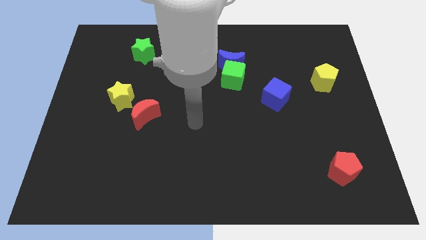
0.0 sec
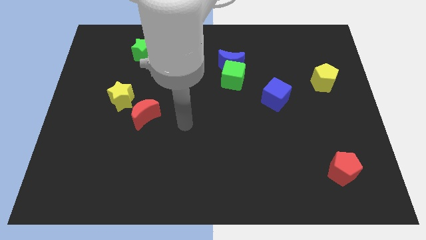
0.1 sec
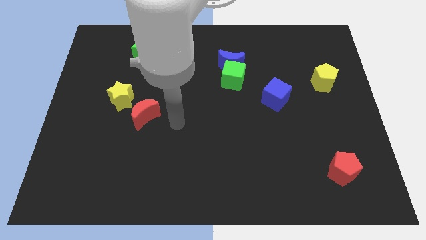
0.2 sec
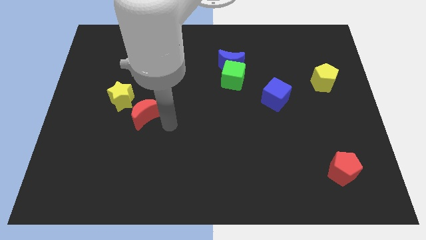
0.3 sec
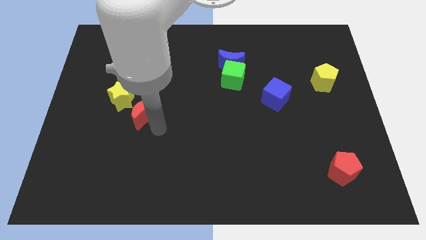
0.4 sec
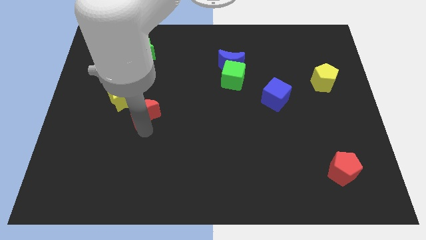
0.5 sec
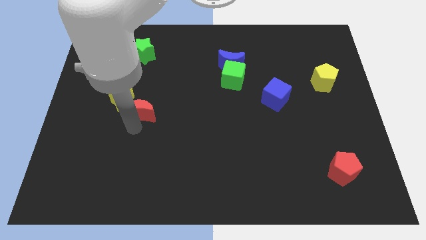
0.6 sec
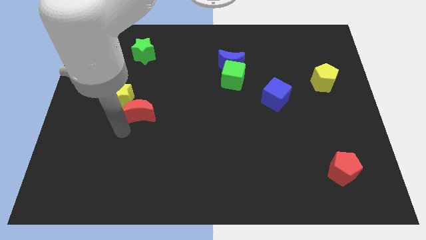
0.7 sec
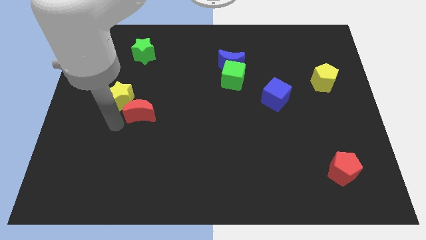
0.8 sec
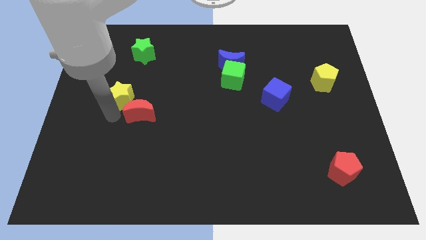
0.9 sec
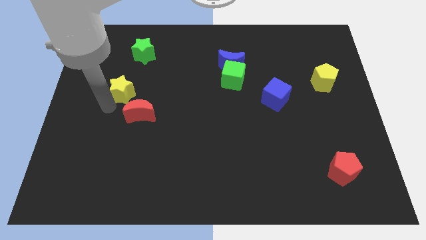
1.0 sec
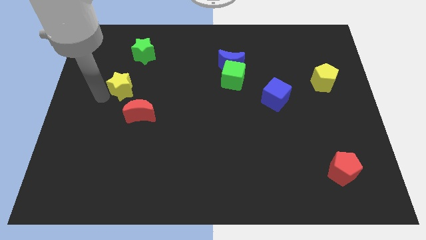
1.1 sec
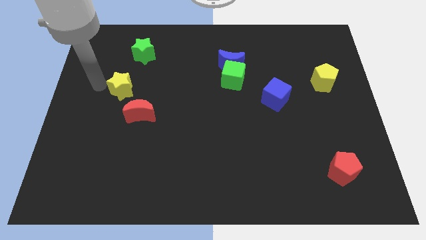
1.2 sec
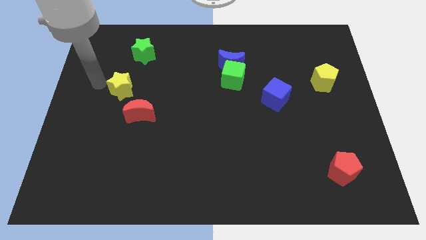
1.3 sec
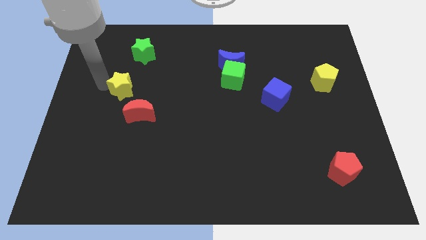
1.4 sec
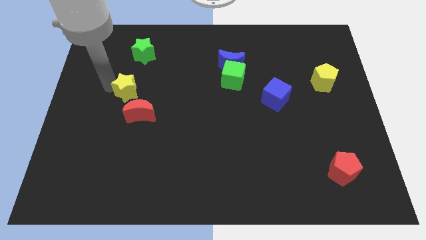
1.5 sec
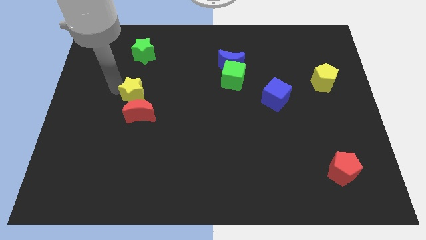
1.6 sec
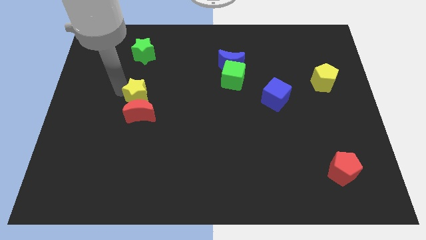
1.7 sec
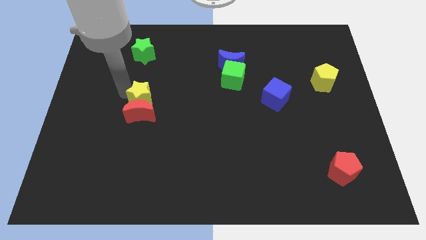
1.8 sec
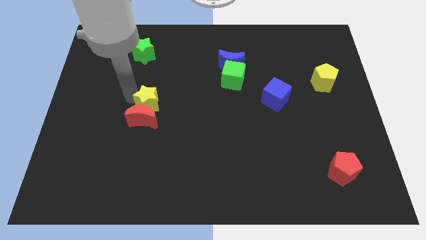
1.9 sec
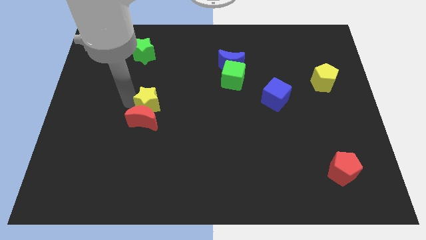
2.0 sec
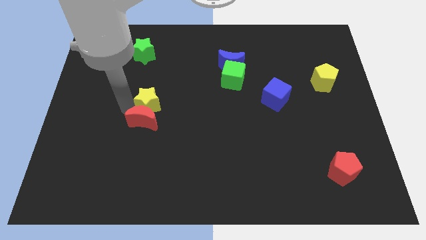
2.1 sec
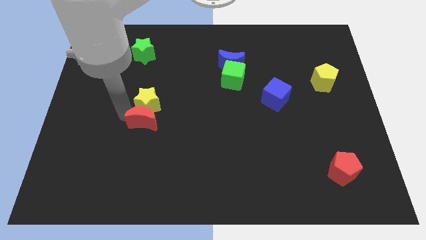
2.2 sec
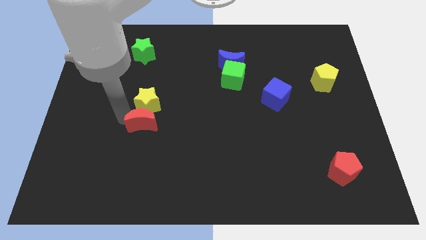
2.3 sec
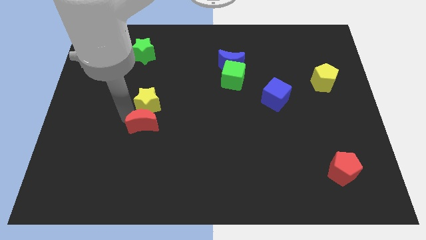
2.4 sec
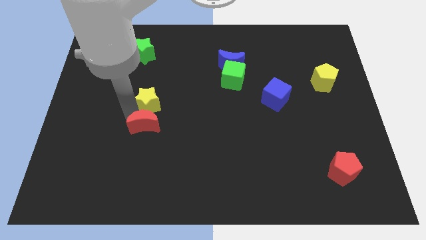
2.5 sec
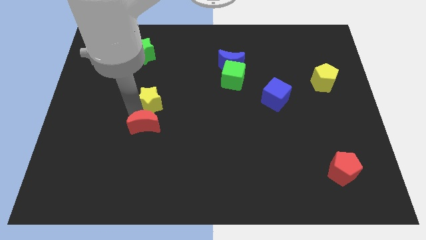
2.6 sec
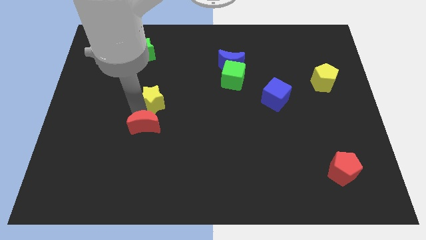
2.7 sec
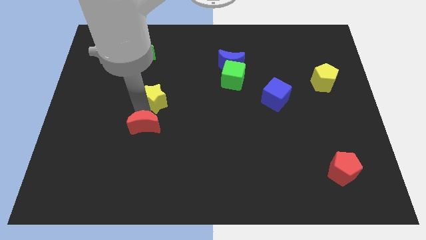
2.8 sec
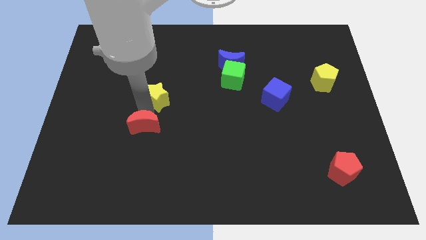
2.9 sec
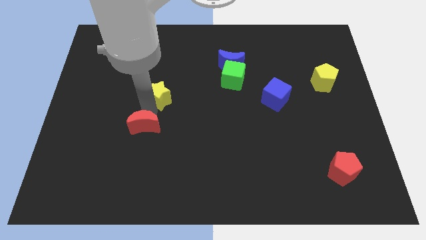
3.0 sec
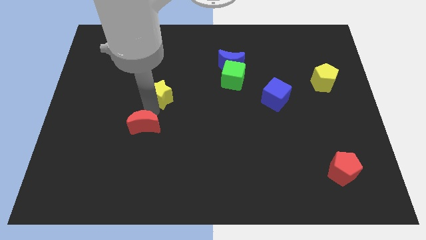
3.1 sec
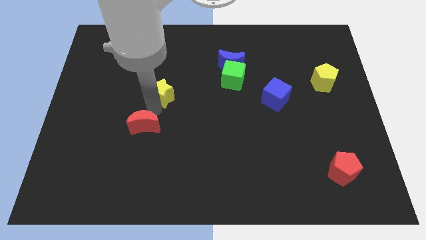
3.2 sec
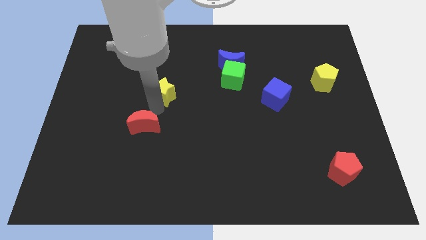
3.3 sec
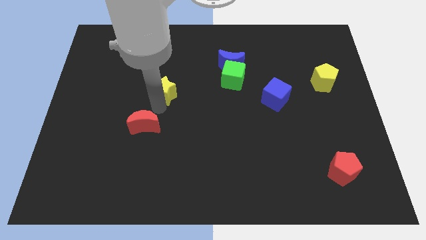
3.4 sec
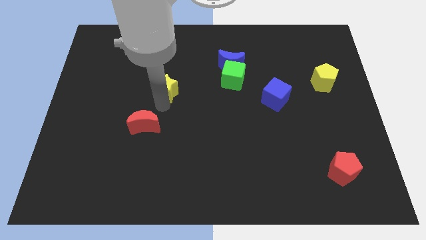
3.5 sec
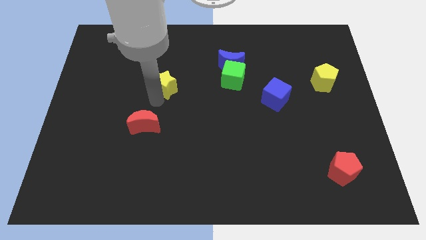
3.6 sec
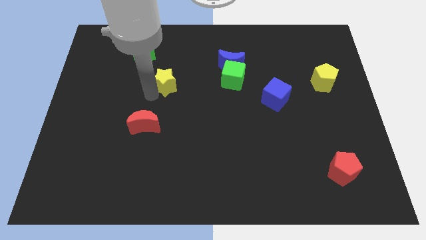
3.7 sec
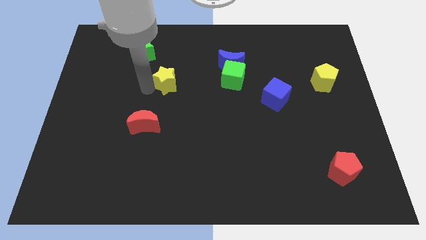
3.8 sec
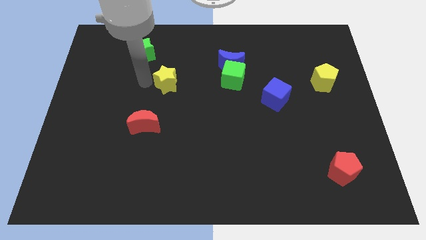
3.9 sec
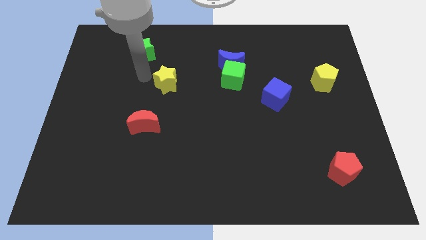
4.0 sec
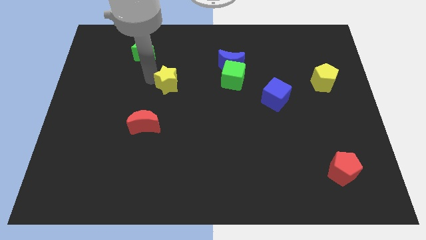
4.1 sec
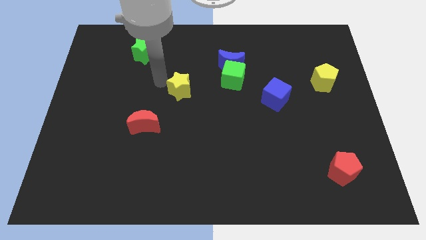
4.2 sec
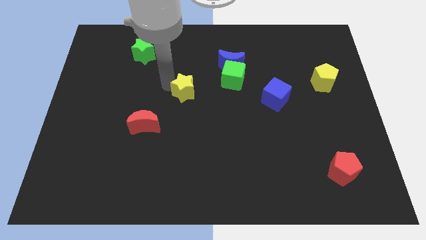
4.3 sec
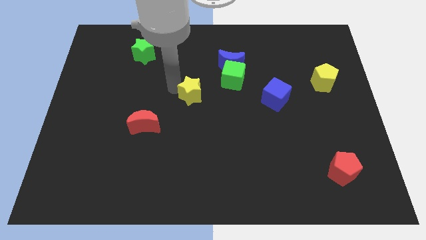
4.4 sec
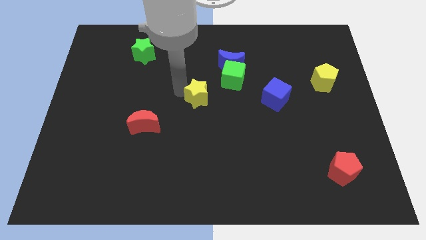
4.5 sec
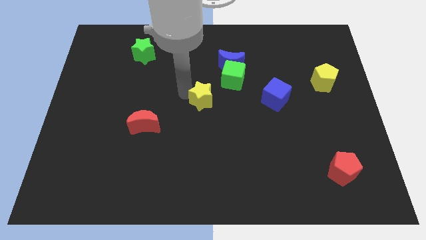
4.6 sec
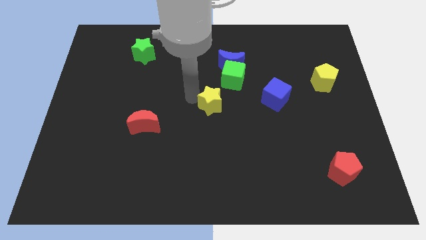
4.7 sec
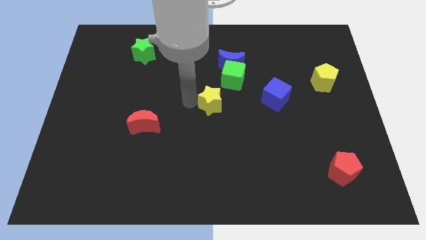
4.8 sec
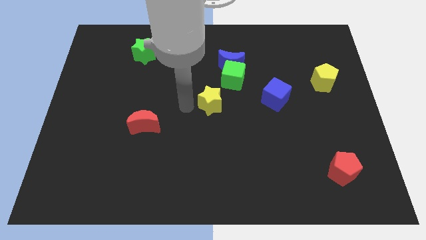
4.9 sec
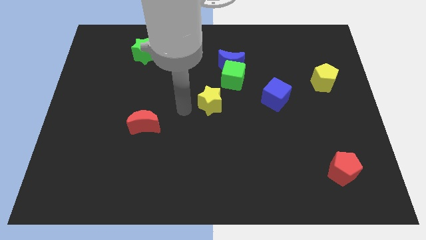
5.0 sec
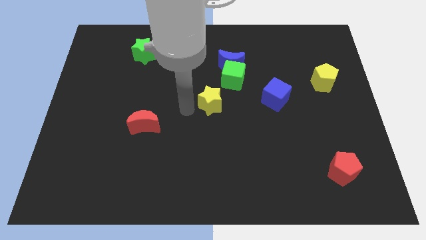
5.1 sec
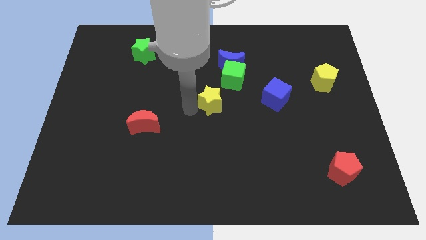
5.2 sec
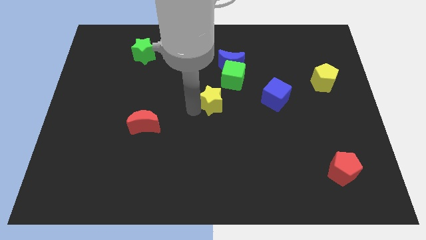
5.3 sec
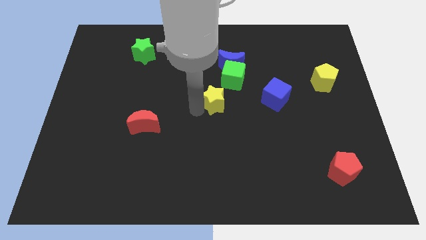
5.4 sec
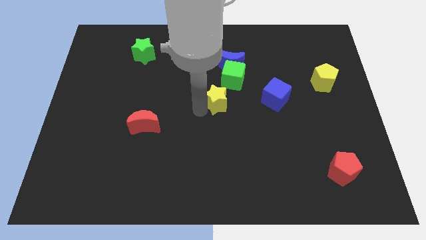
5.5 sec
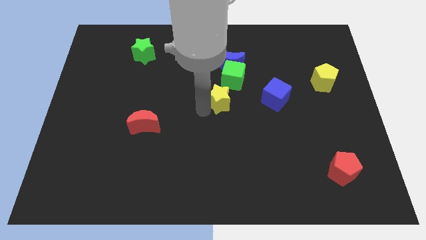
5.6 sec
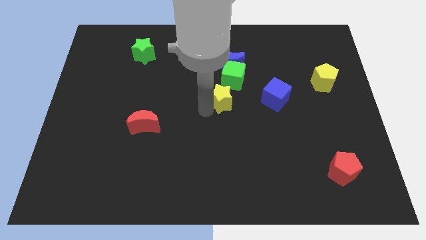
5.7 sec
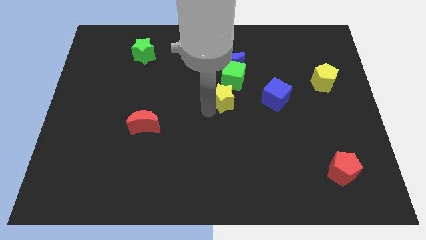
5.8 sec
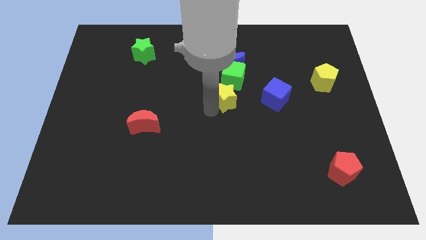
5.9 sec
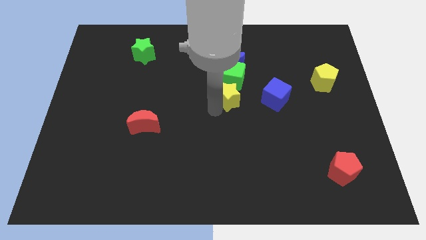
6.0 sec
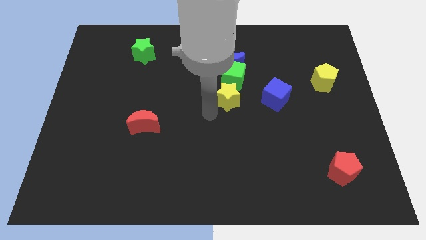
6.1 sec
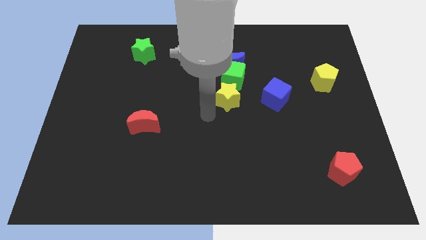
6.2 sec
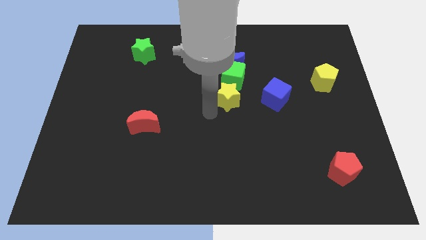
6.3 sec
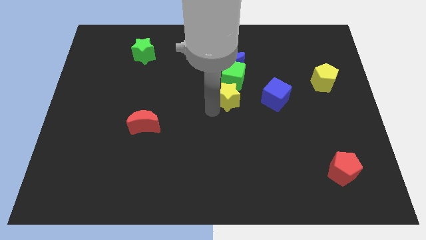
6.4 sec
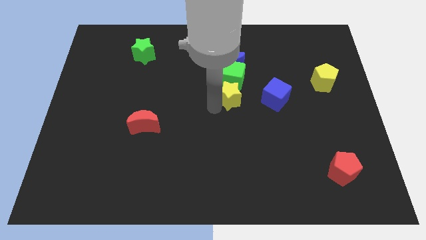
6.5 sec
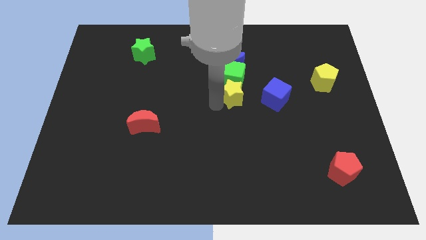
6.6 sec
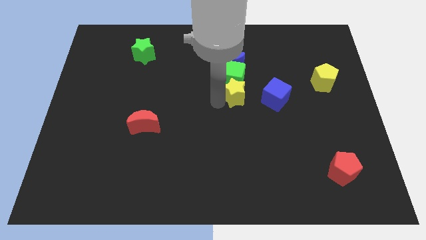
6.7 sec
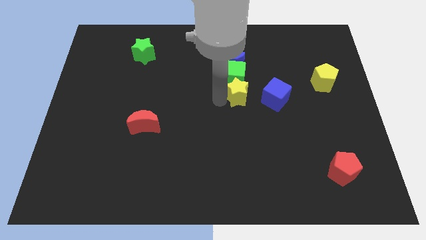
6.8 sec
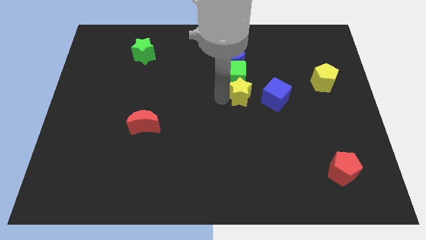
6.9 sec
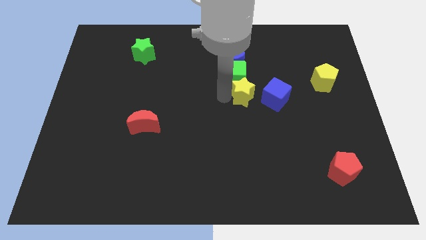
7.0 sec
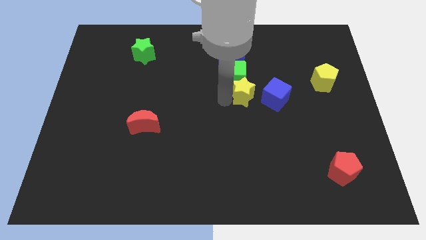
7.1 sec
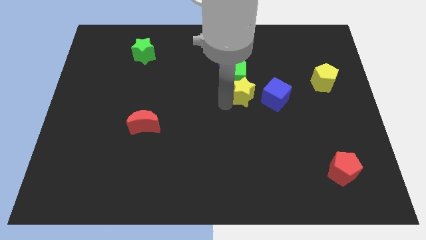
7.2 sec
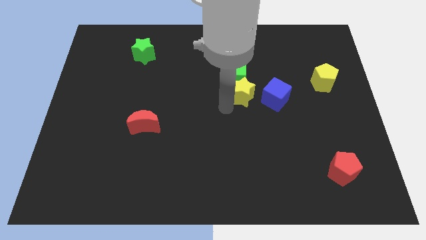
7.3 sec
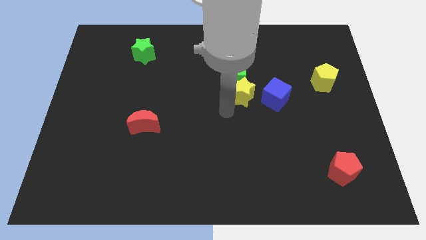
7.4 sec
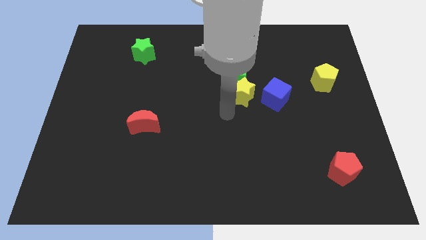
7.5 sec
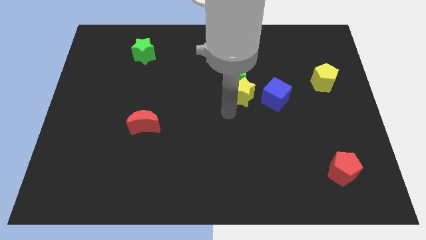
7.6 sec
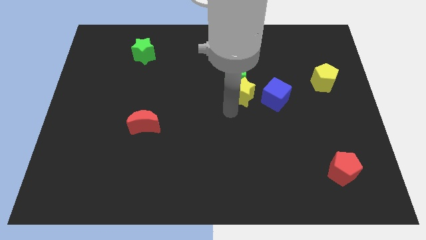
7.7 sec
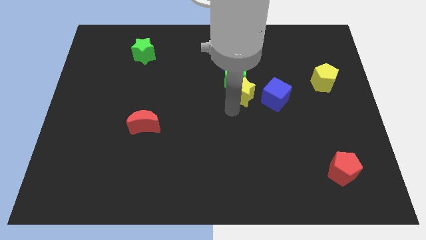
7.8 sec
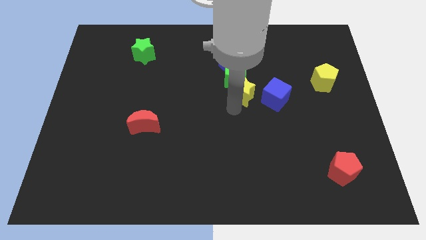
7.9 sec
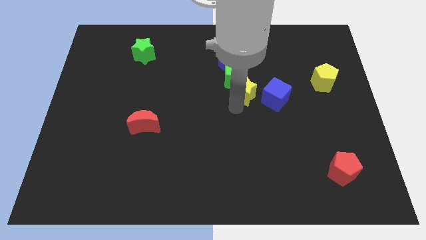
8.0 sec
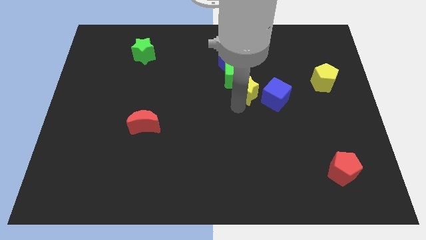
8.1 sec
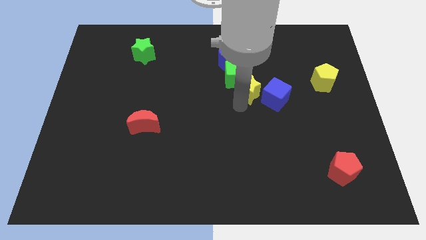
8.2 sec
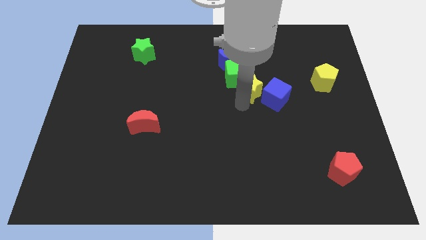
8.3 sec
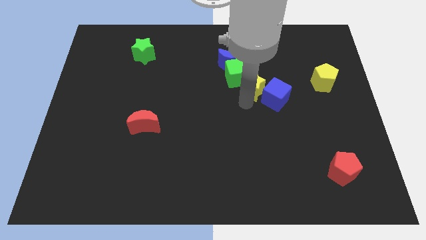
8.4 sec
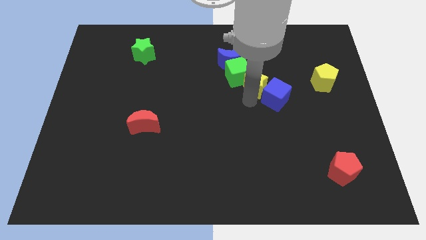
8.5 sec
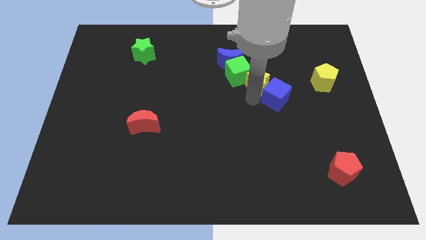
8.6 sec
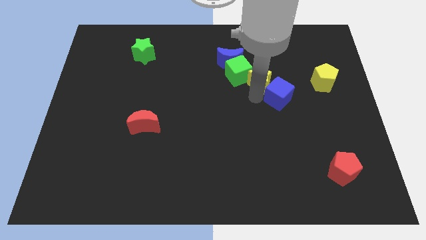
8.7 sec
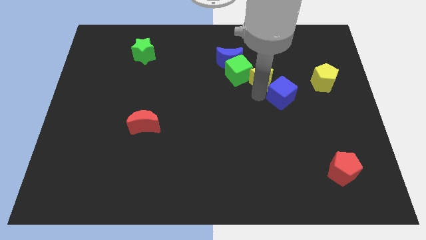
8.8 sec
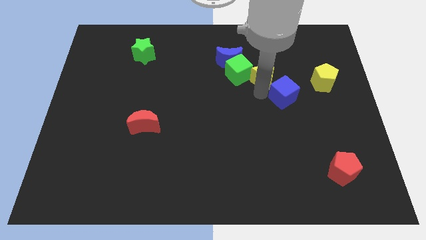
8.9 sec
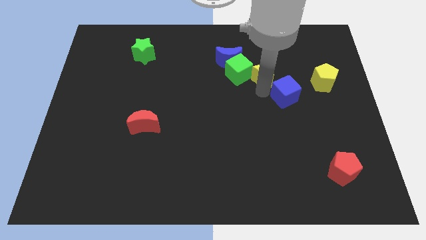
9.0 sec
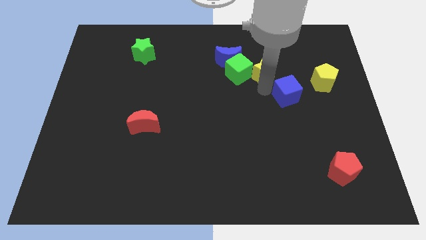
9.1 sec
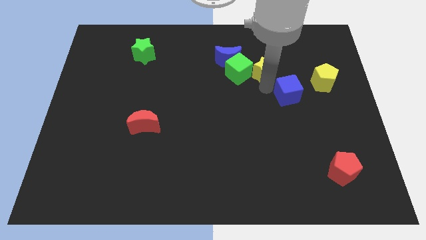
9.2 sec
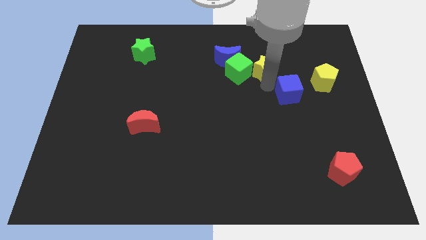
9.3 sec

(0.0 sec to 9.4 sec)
put the yellow star just right of the blue moon
